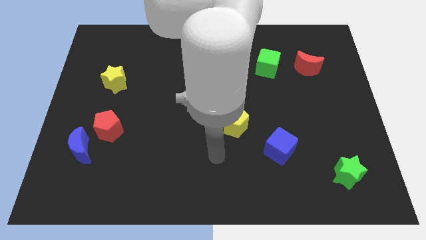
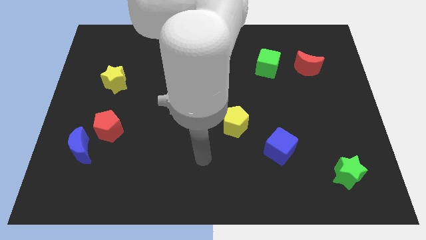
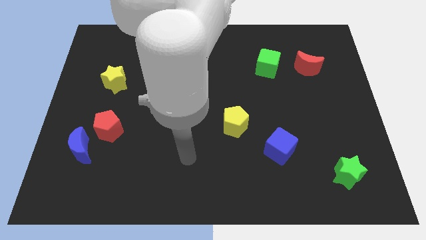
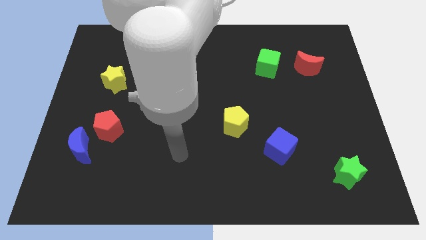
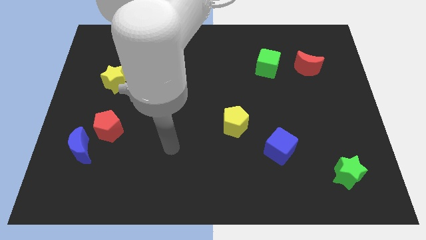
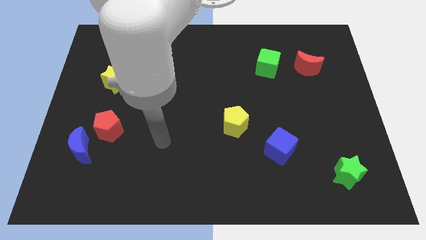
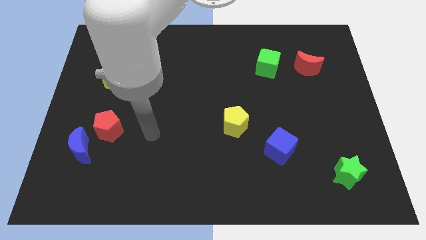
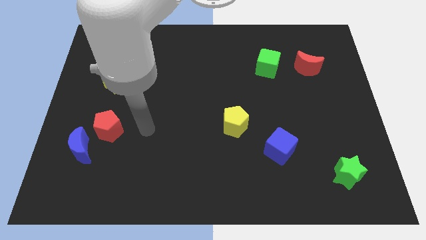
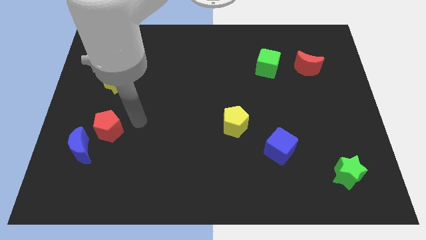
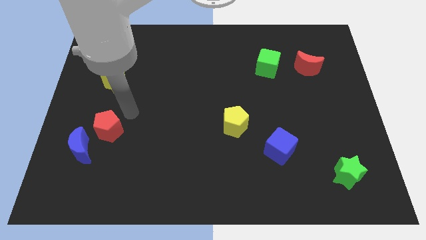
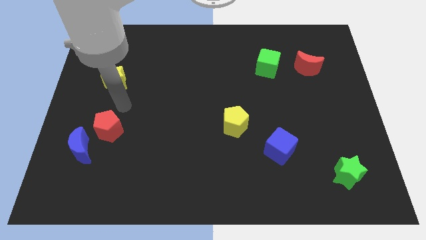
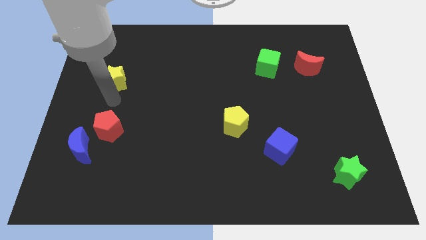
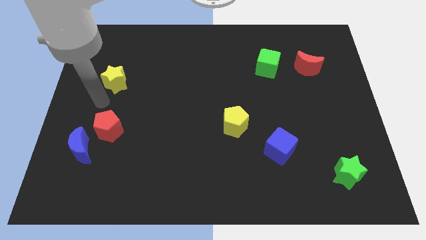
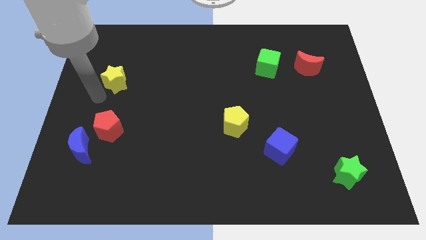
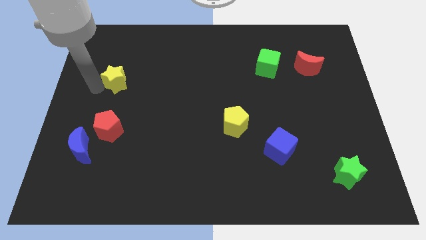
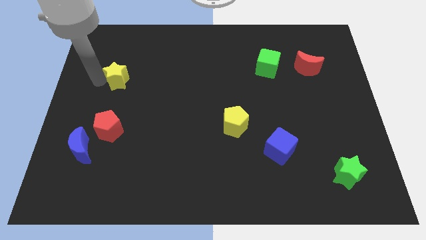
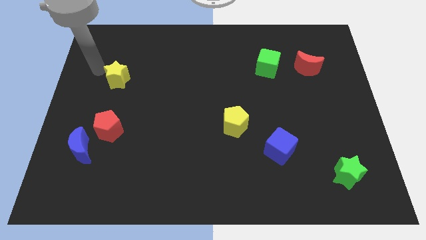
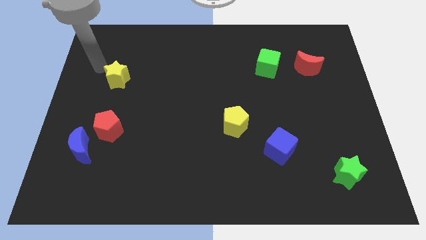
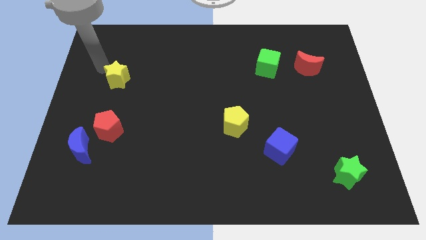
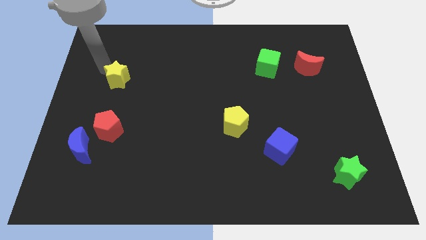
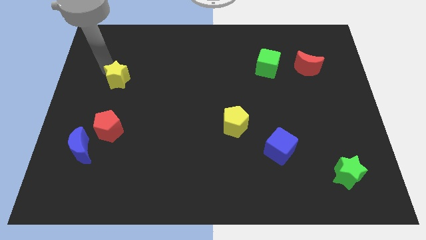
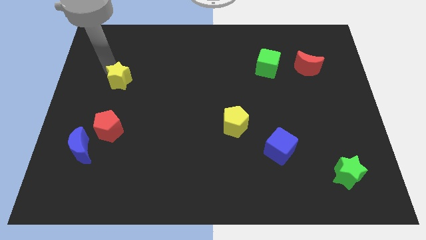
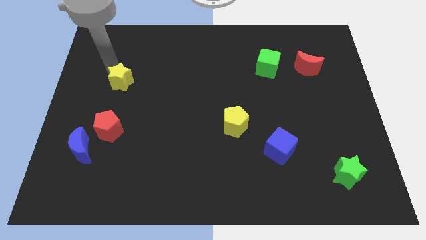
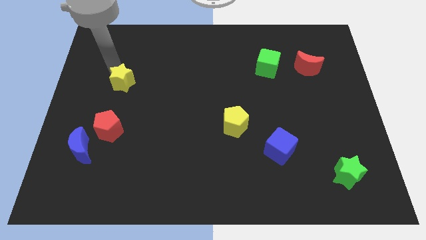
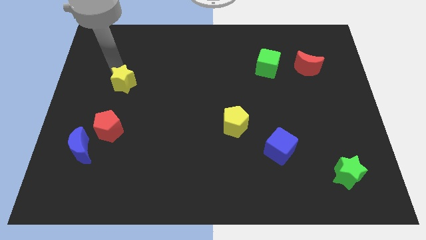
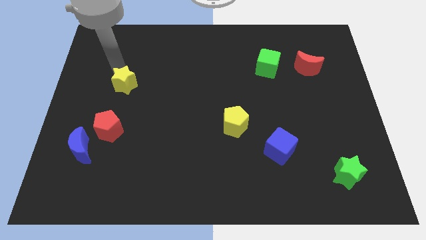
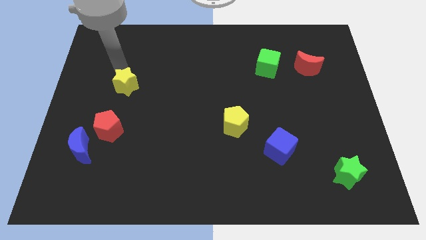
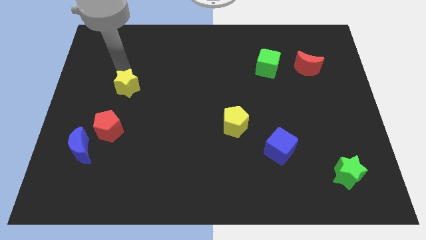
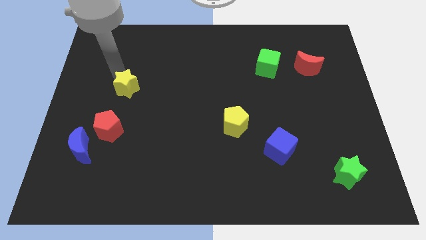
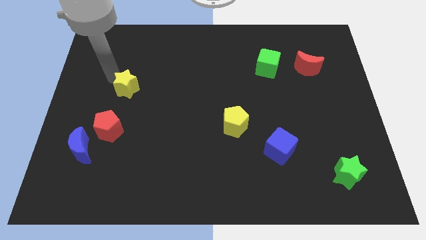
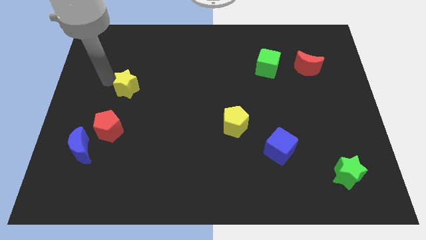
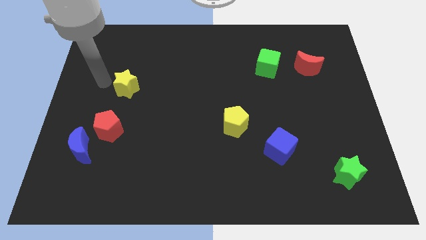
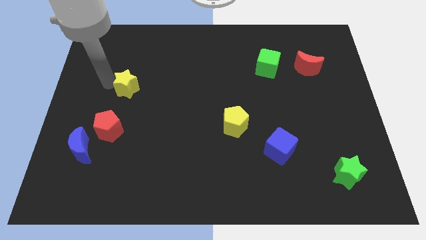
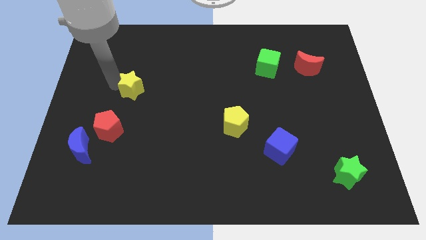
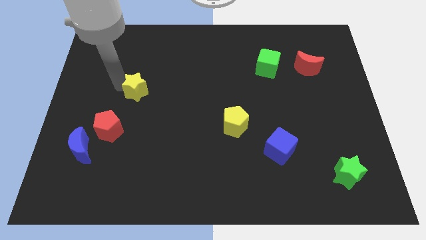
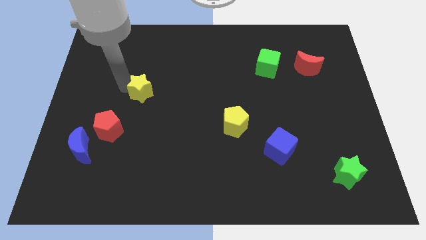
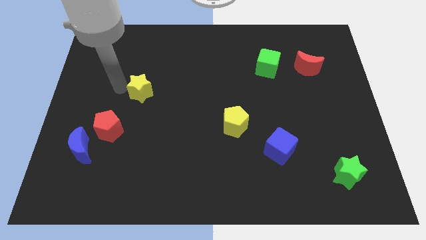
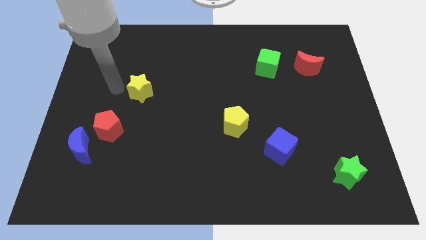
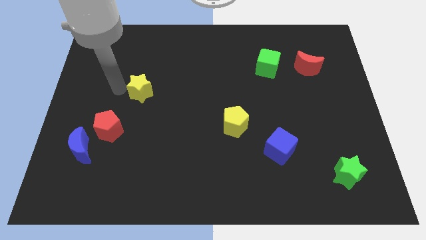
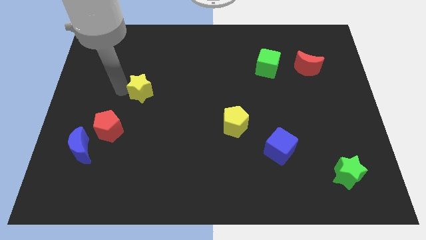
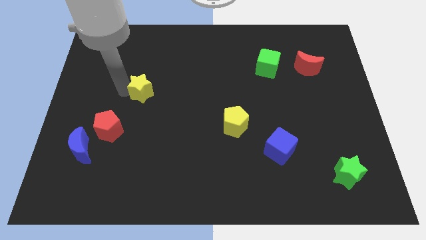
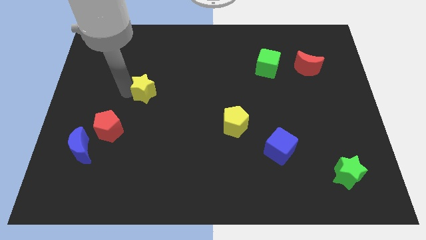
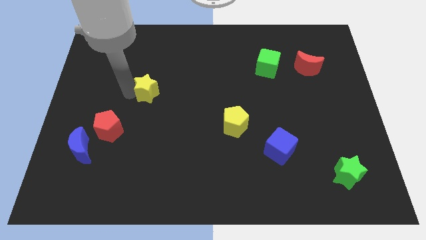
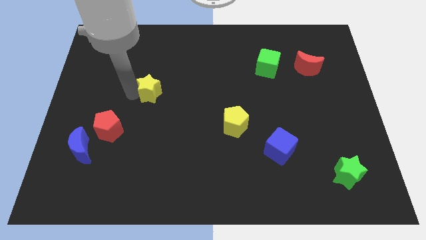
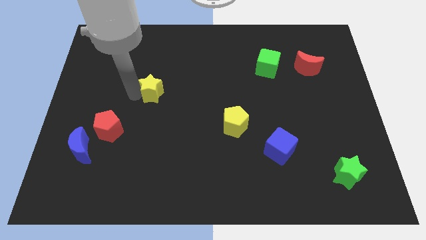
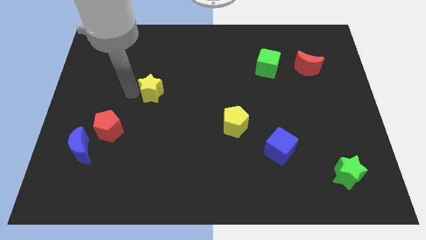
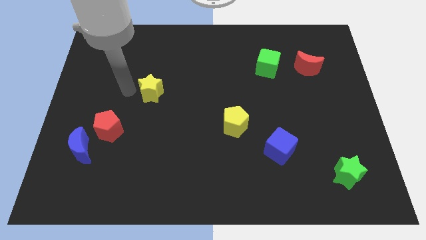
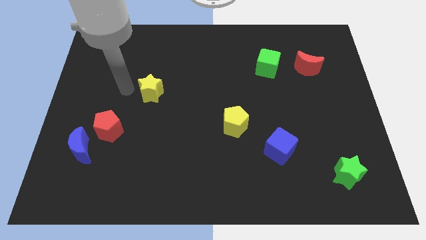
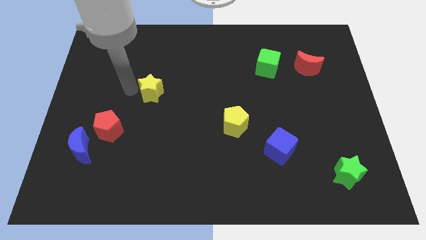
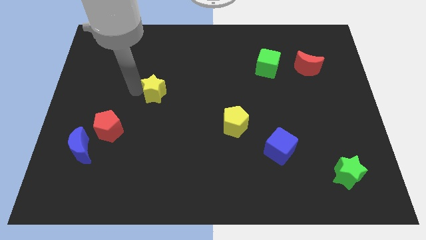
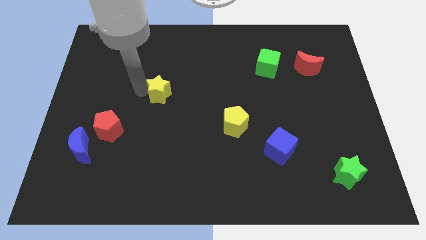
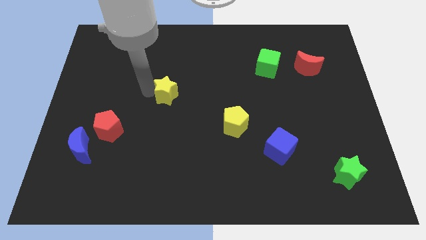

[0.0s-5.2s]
put the yellow star to the center

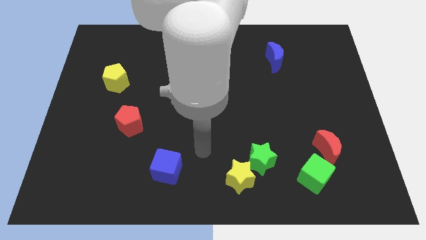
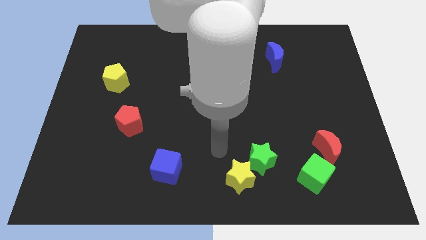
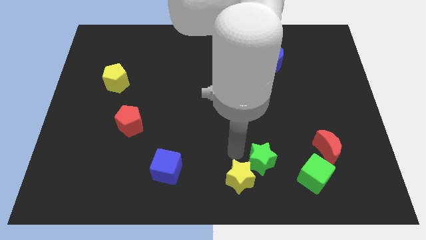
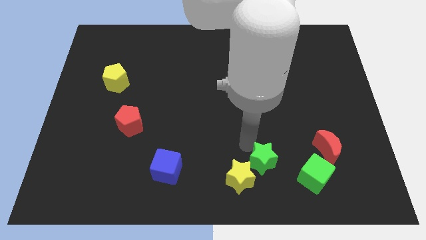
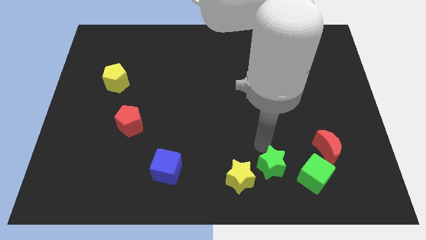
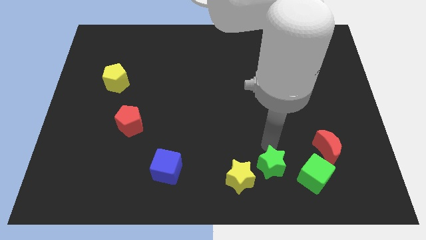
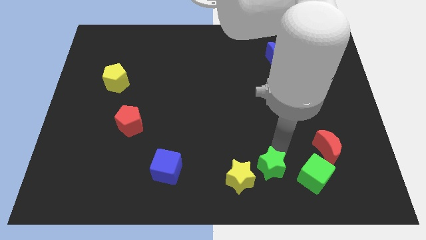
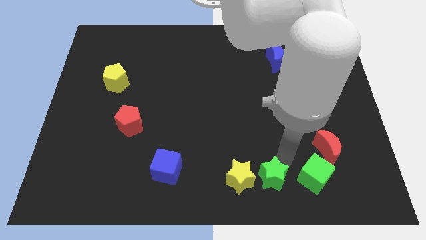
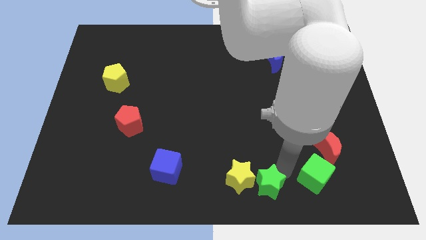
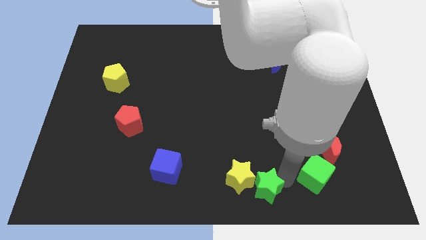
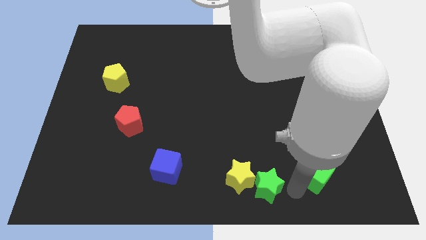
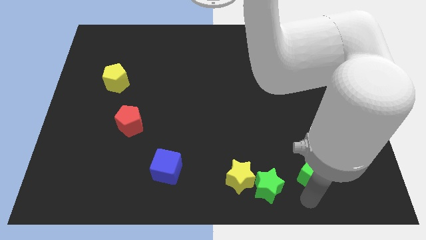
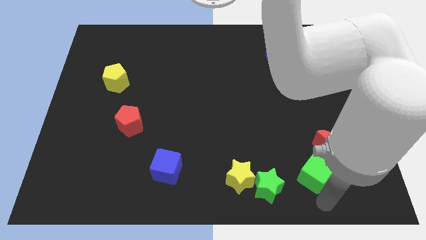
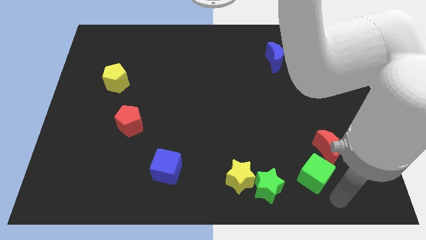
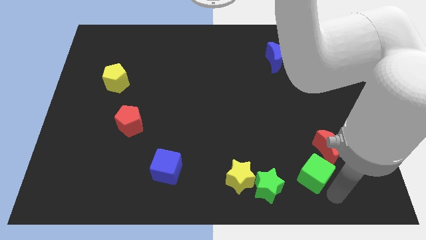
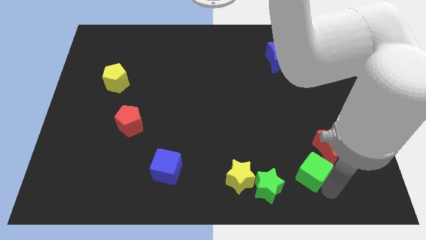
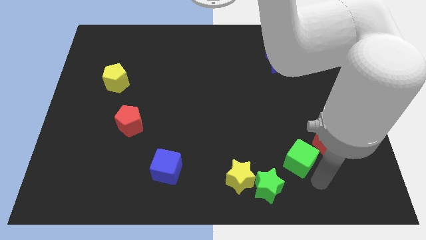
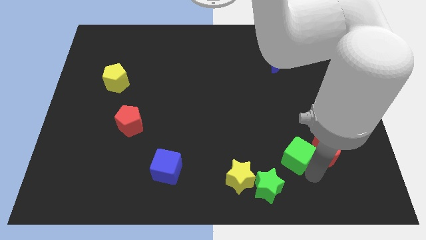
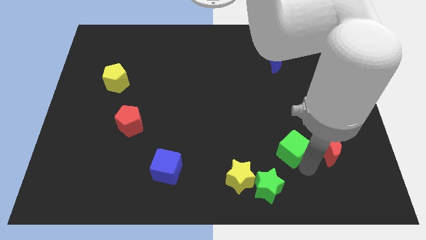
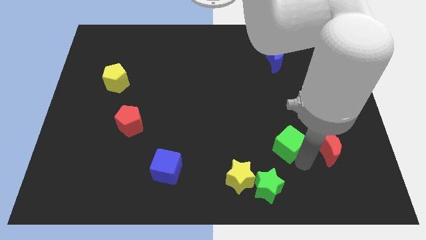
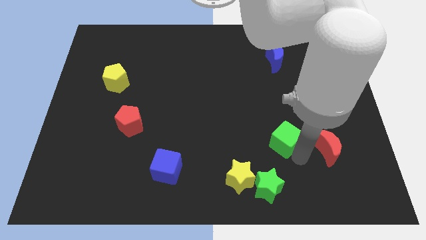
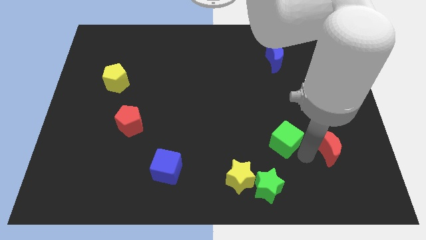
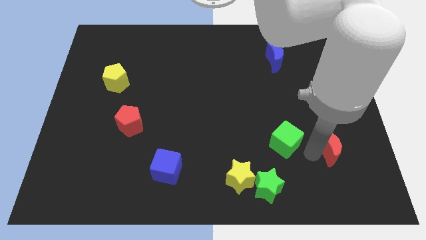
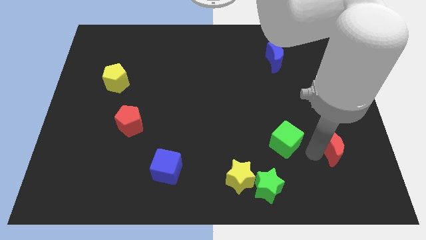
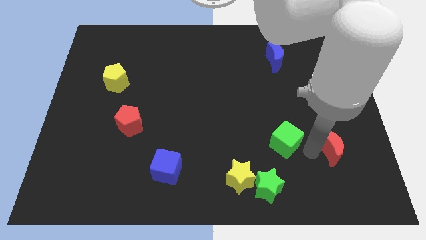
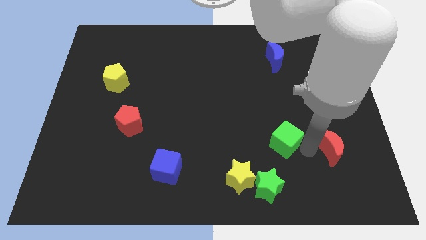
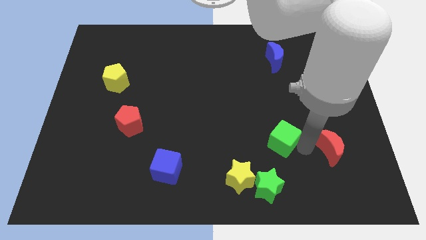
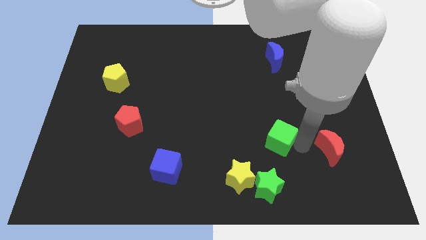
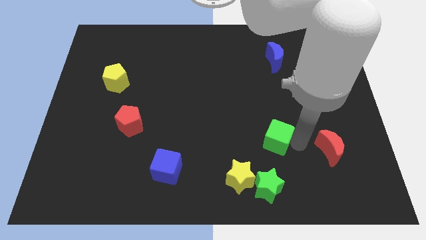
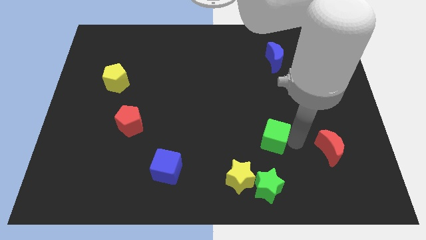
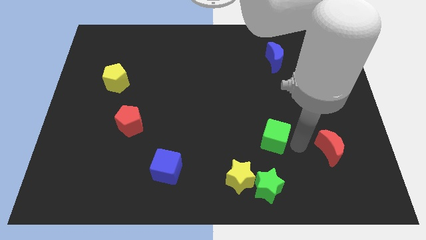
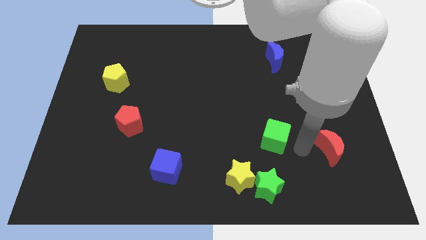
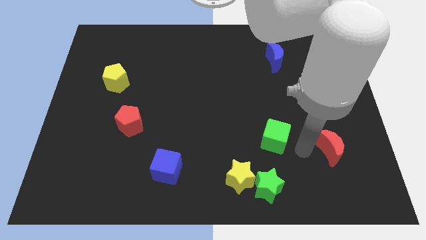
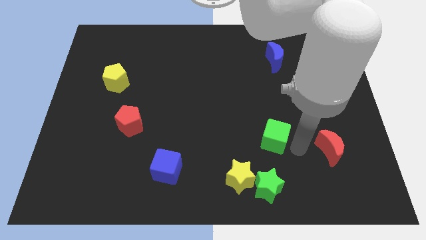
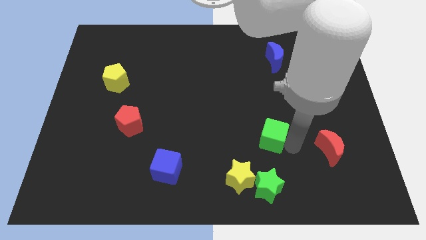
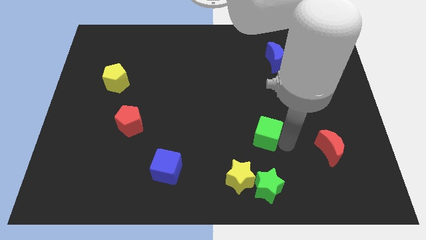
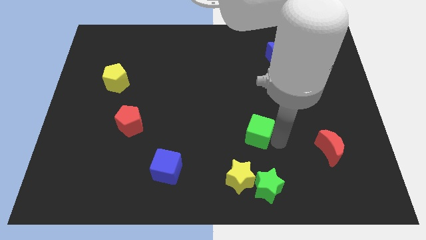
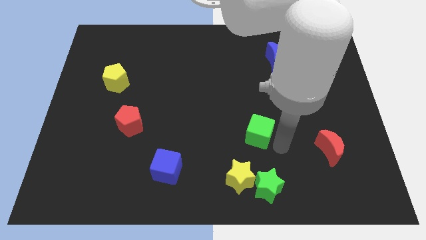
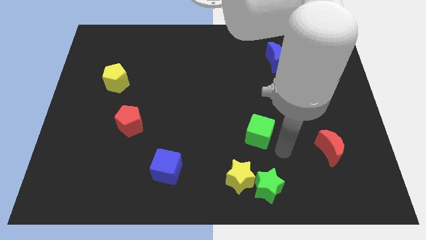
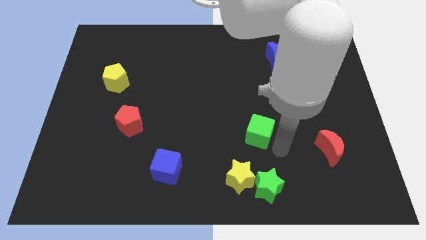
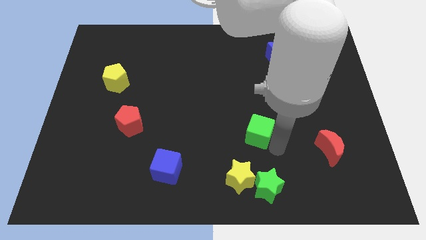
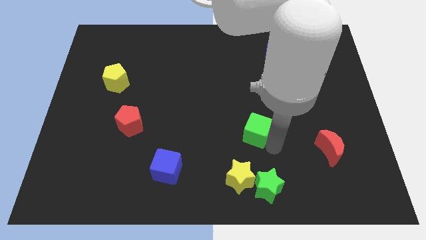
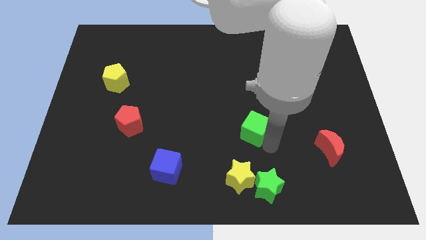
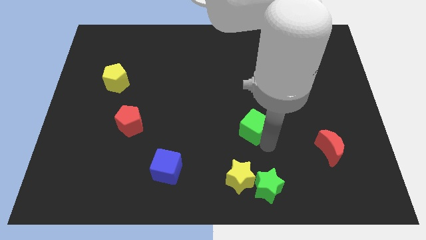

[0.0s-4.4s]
put the green cube to the center
